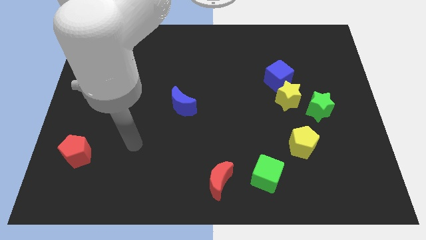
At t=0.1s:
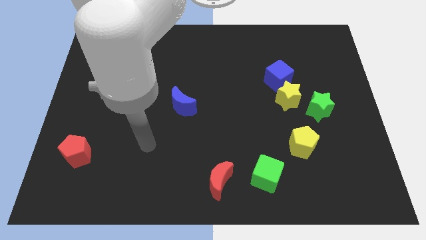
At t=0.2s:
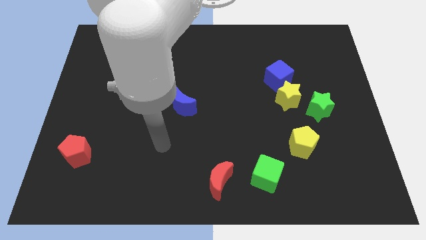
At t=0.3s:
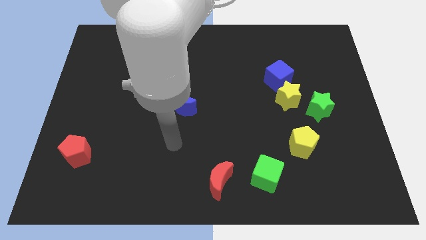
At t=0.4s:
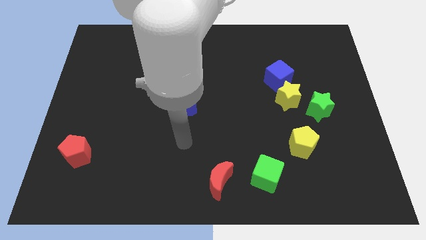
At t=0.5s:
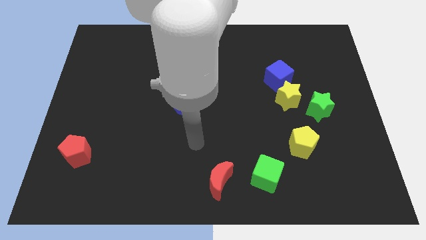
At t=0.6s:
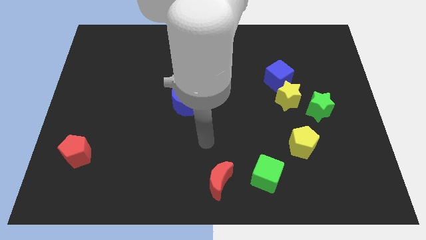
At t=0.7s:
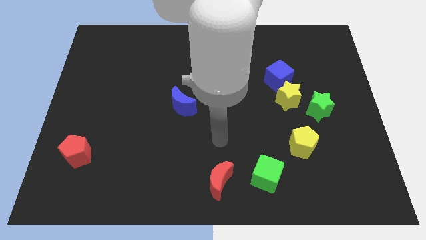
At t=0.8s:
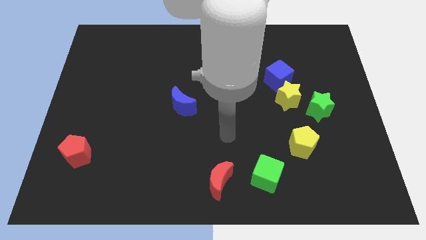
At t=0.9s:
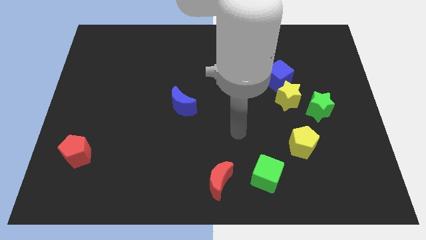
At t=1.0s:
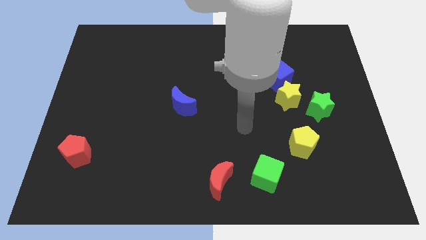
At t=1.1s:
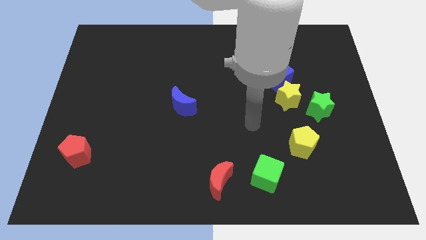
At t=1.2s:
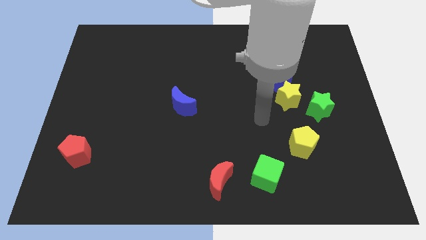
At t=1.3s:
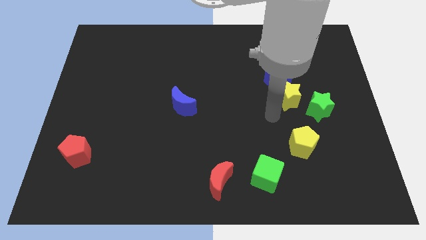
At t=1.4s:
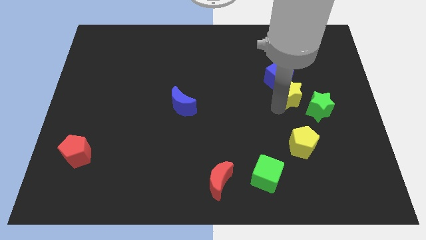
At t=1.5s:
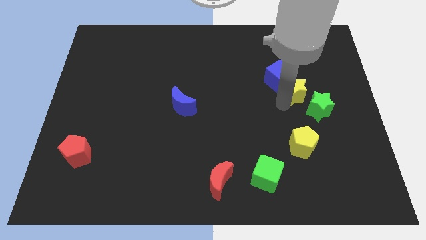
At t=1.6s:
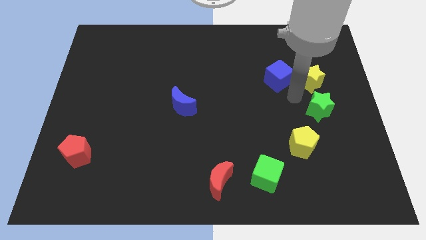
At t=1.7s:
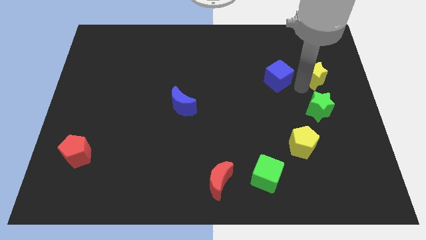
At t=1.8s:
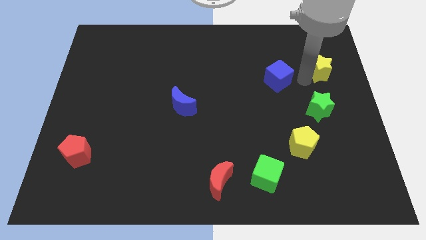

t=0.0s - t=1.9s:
move the blue cube away from the yellow star

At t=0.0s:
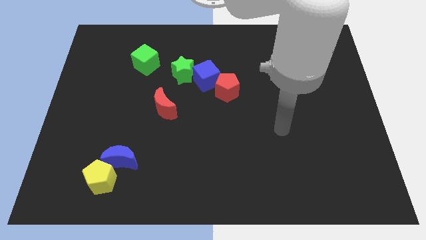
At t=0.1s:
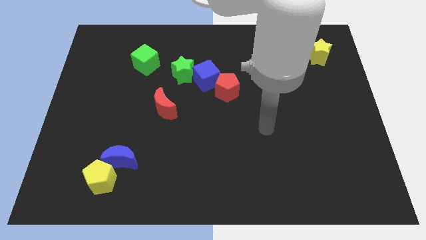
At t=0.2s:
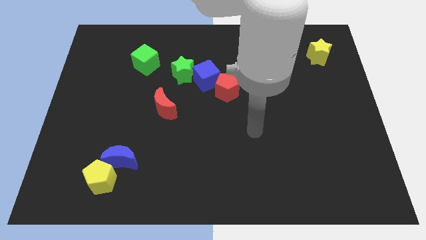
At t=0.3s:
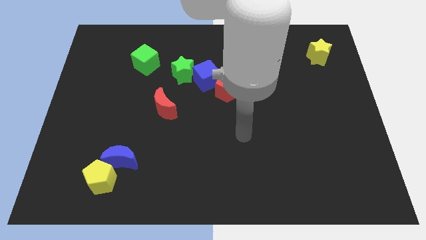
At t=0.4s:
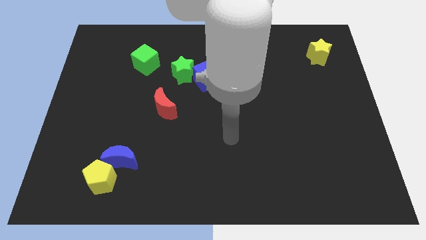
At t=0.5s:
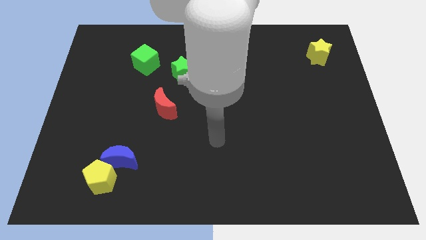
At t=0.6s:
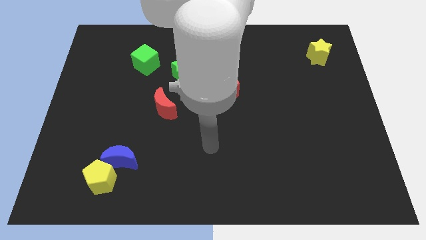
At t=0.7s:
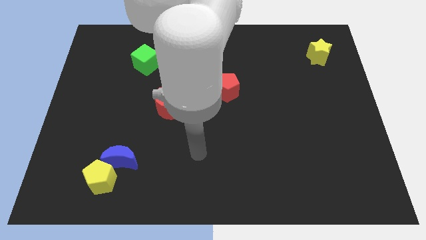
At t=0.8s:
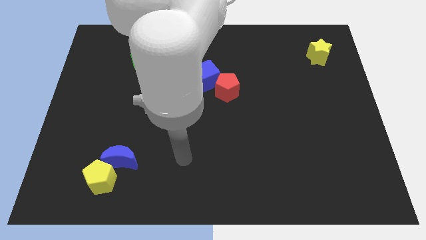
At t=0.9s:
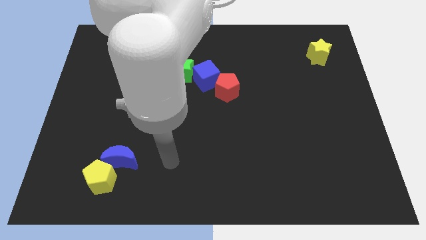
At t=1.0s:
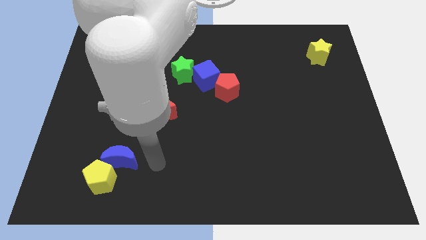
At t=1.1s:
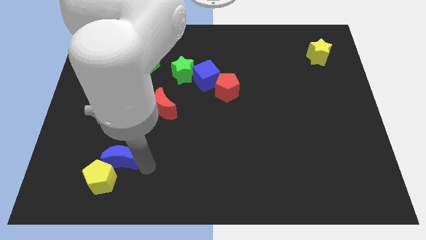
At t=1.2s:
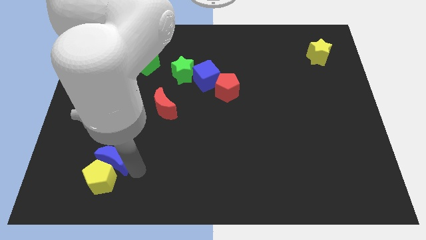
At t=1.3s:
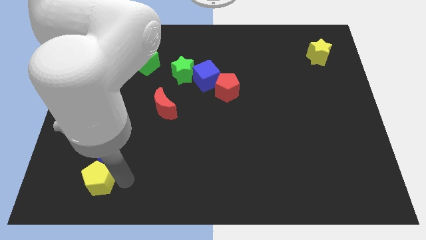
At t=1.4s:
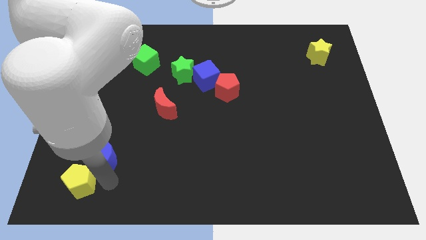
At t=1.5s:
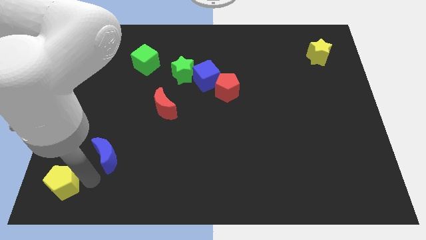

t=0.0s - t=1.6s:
move the blue moon away from the yellow pentagon

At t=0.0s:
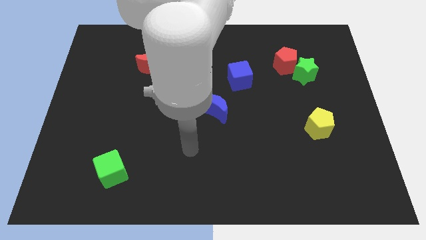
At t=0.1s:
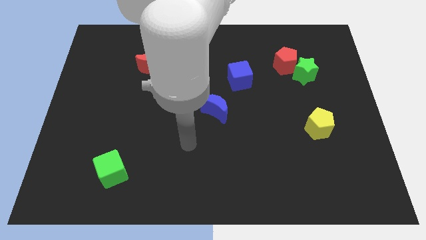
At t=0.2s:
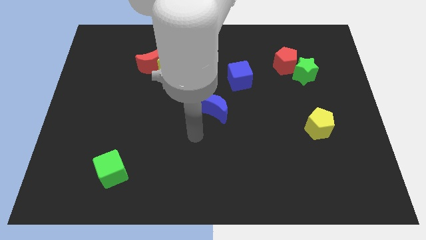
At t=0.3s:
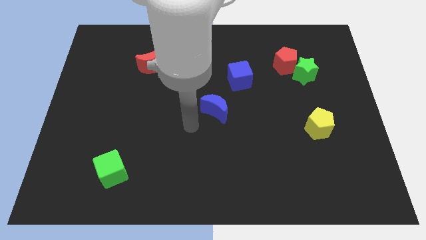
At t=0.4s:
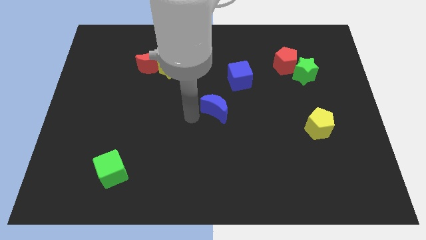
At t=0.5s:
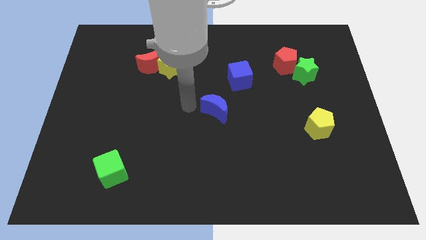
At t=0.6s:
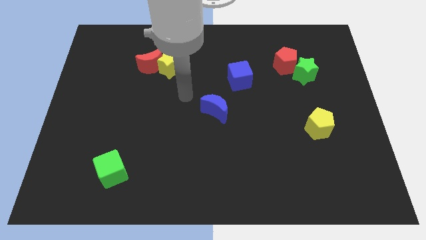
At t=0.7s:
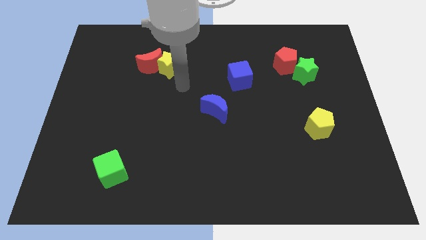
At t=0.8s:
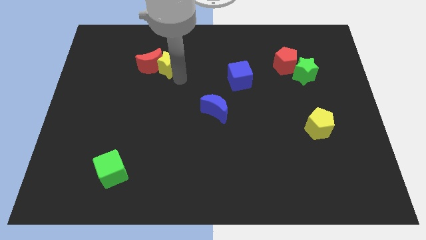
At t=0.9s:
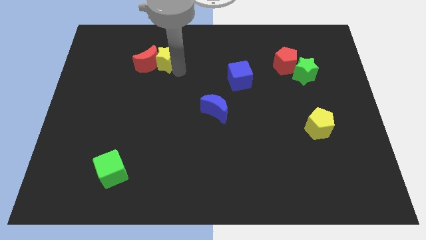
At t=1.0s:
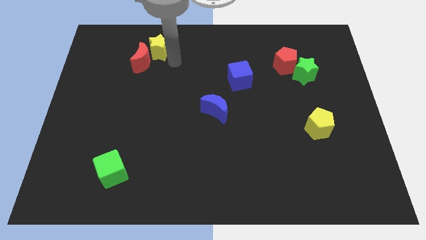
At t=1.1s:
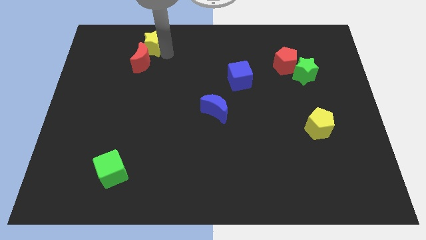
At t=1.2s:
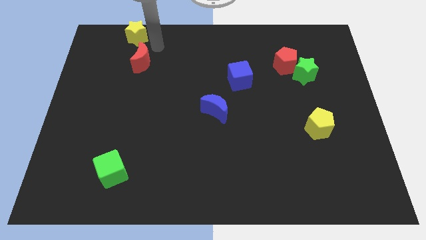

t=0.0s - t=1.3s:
move the red moon away from the yellow star

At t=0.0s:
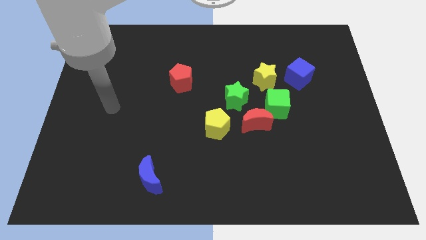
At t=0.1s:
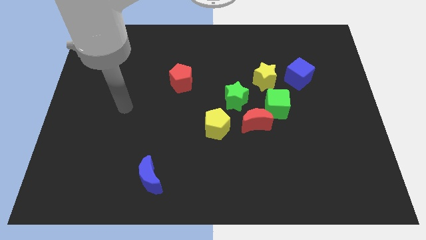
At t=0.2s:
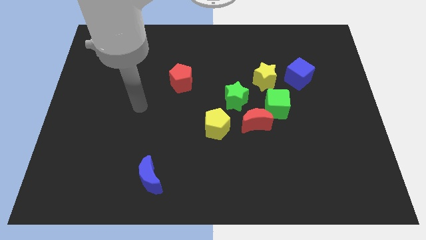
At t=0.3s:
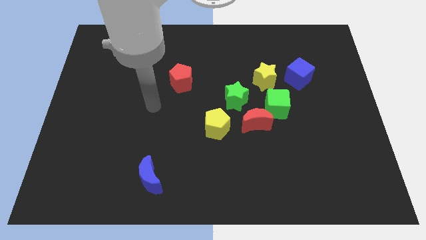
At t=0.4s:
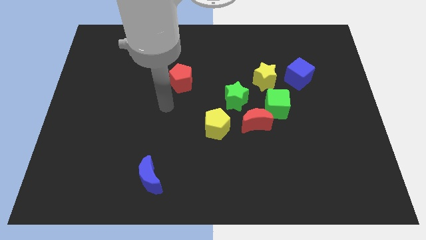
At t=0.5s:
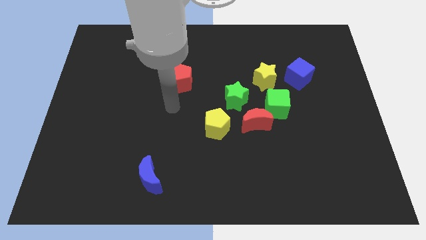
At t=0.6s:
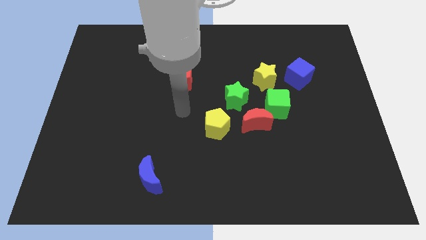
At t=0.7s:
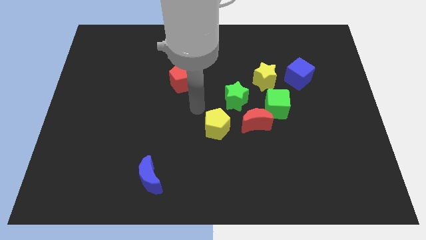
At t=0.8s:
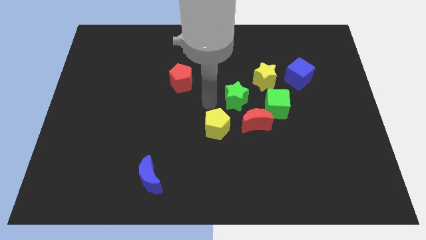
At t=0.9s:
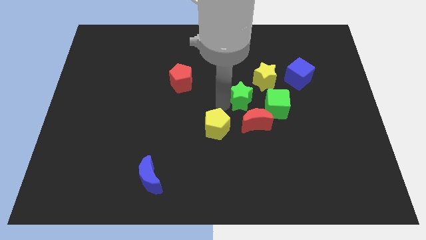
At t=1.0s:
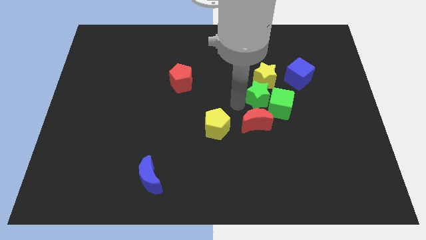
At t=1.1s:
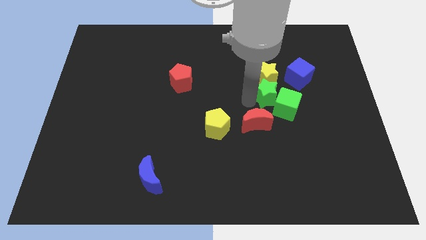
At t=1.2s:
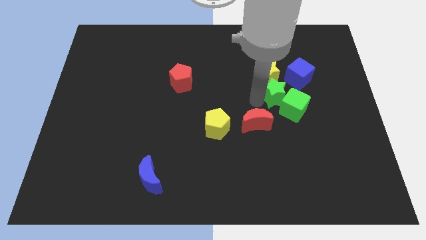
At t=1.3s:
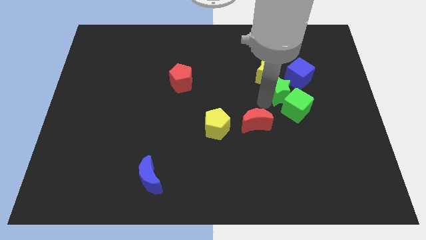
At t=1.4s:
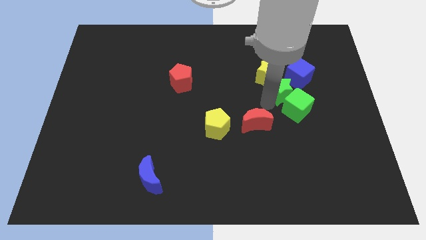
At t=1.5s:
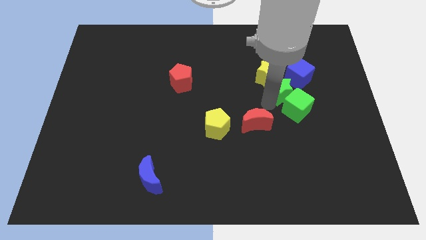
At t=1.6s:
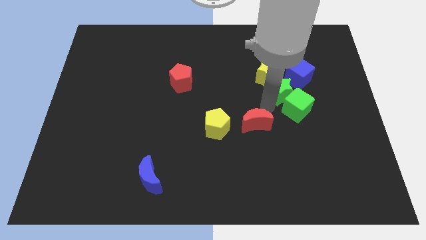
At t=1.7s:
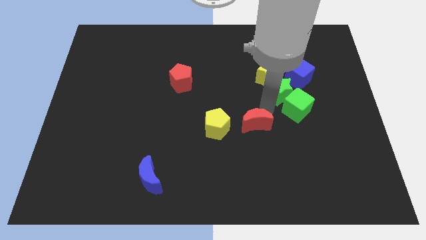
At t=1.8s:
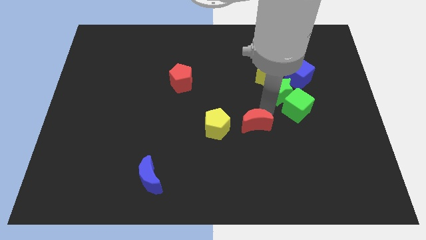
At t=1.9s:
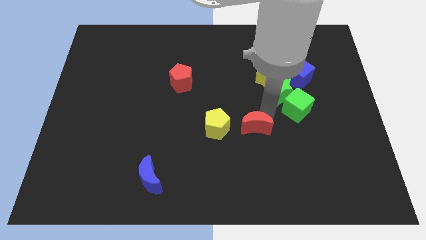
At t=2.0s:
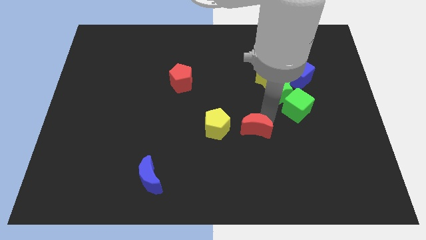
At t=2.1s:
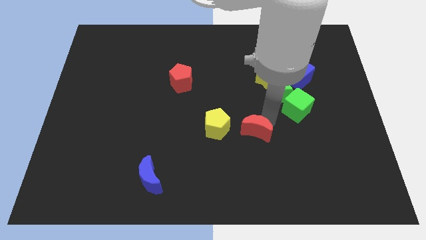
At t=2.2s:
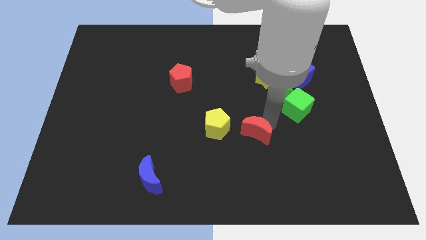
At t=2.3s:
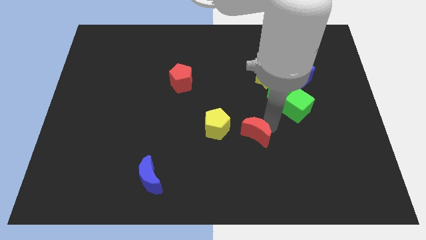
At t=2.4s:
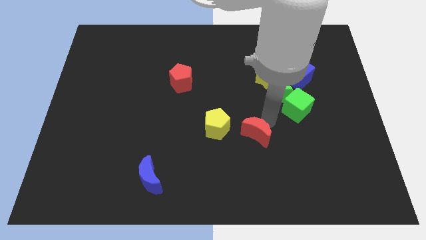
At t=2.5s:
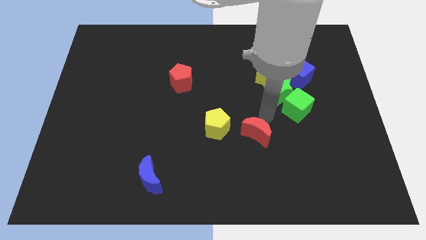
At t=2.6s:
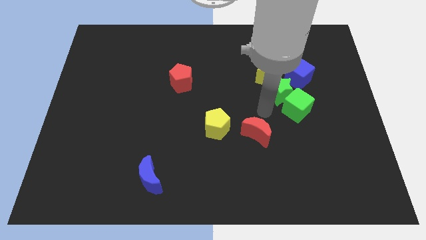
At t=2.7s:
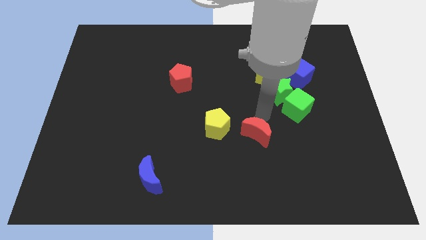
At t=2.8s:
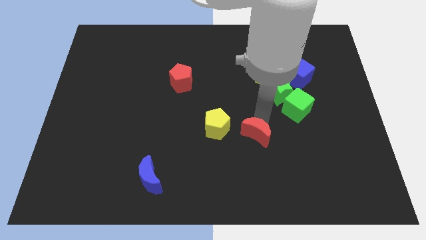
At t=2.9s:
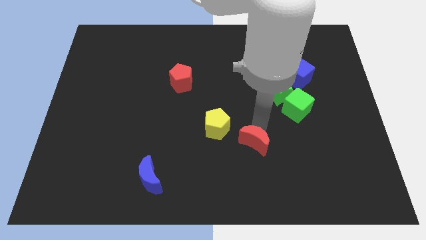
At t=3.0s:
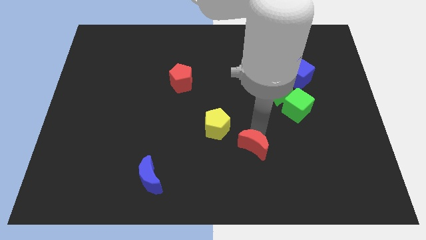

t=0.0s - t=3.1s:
separate the red moon from the green cube, green star, and yellow pentagon

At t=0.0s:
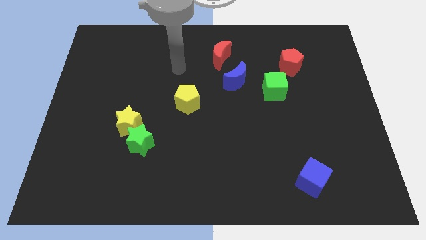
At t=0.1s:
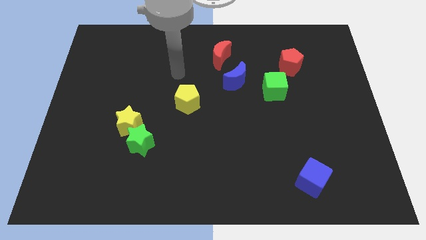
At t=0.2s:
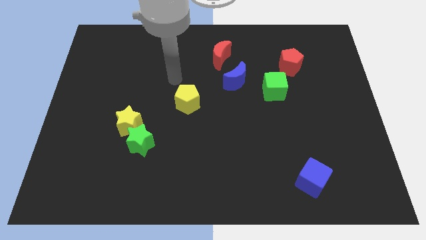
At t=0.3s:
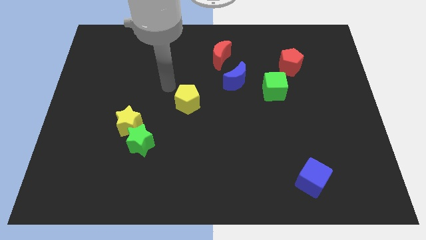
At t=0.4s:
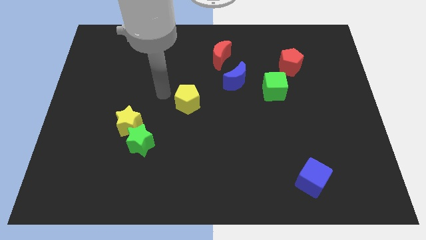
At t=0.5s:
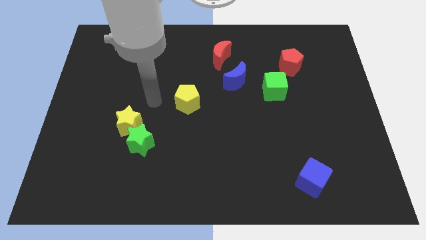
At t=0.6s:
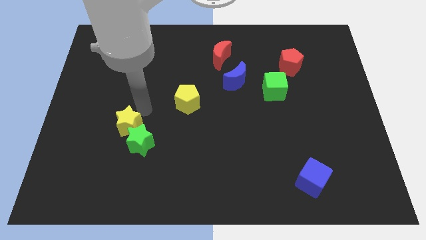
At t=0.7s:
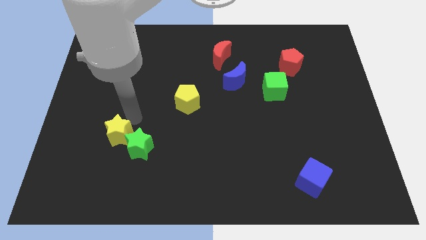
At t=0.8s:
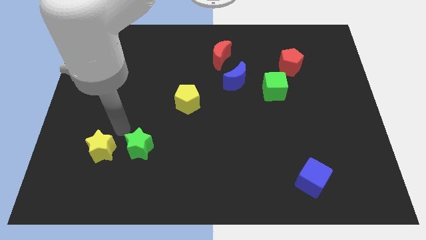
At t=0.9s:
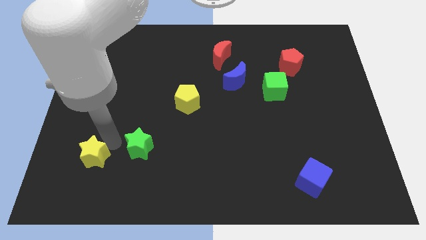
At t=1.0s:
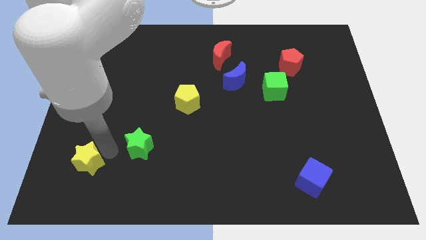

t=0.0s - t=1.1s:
separate the green star from the yellow star

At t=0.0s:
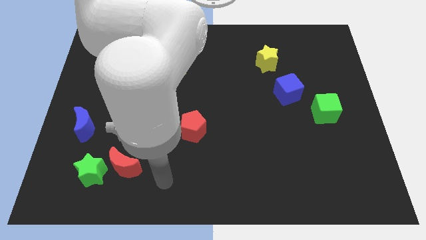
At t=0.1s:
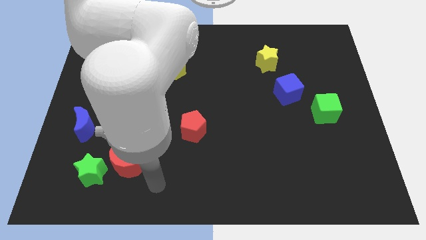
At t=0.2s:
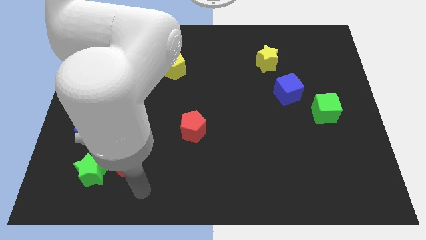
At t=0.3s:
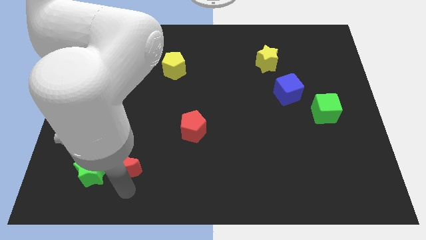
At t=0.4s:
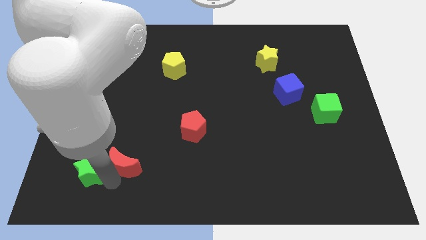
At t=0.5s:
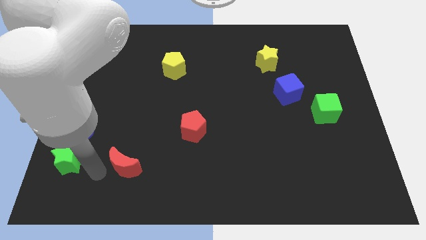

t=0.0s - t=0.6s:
move the red moon away from the green star
